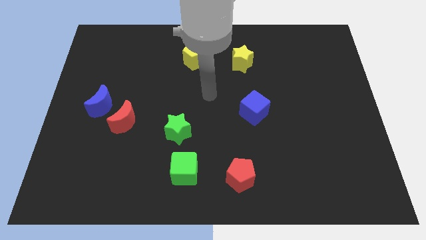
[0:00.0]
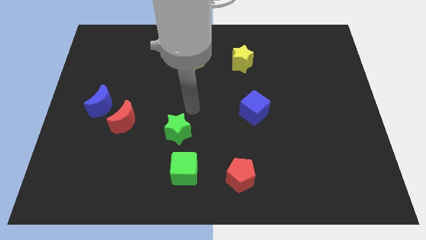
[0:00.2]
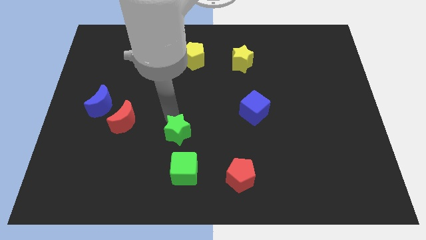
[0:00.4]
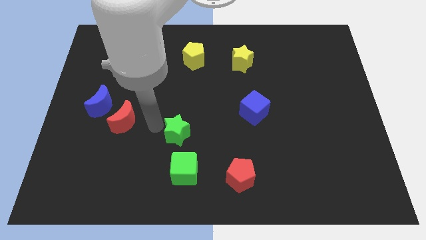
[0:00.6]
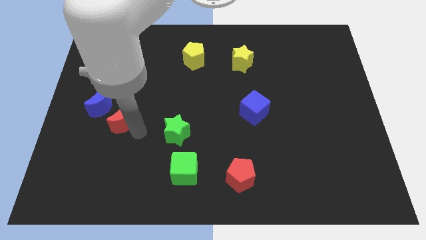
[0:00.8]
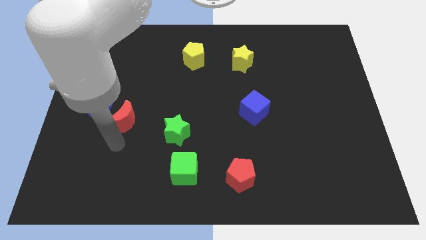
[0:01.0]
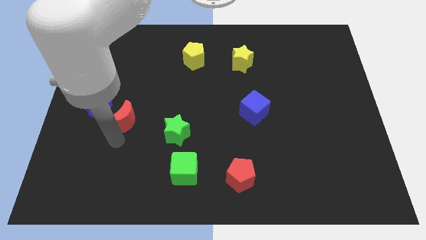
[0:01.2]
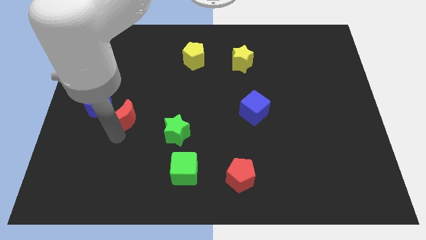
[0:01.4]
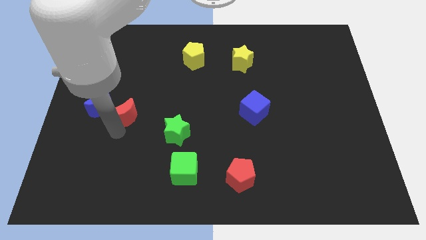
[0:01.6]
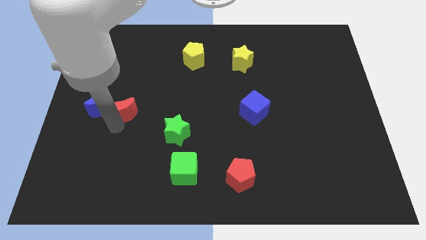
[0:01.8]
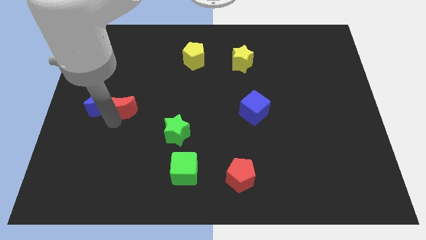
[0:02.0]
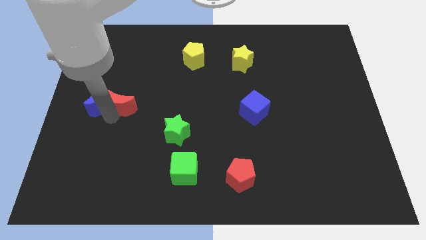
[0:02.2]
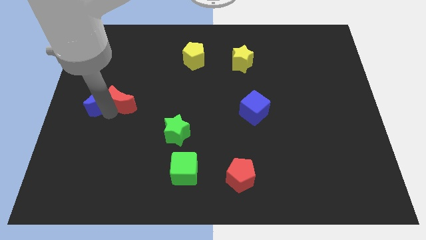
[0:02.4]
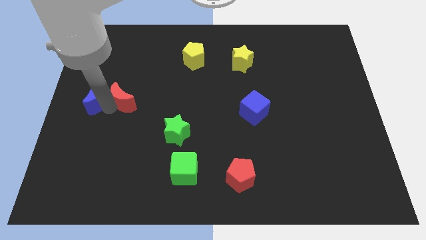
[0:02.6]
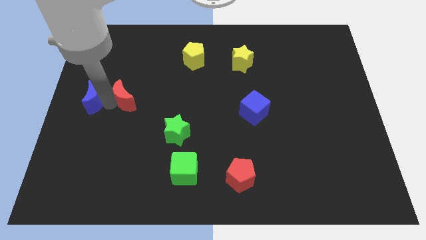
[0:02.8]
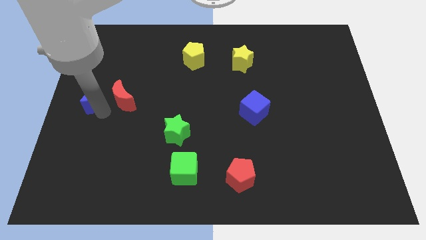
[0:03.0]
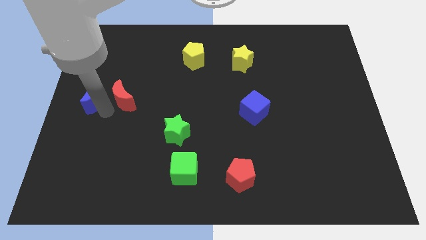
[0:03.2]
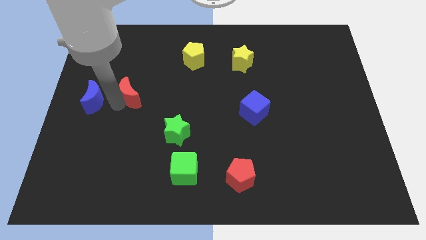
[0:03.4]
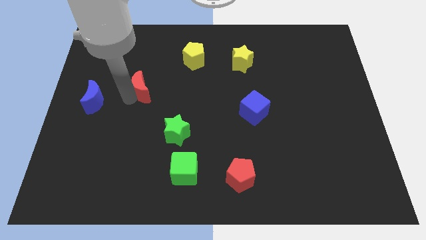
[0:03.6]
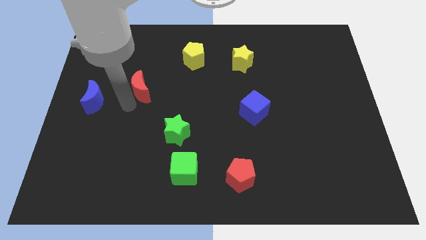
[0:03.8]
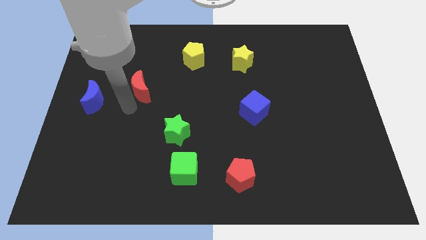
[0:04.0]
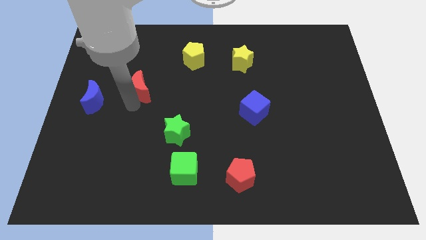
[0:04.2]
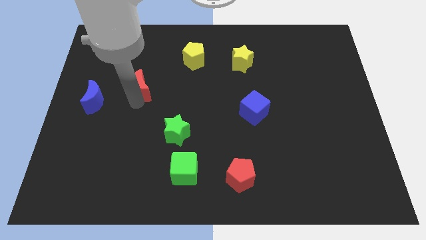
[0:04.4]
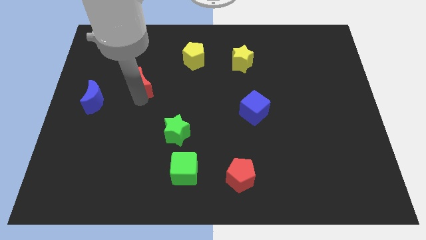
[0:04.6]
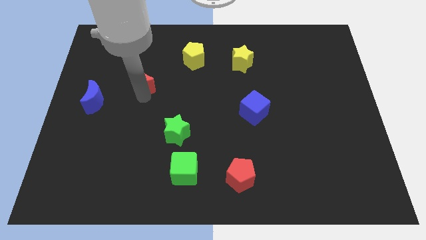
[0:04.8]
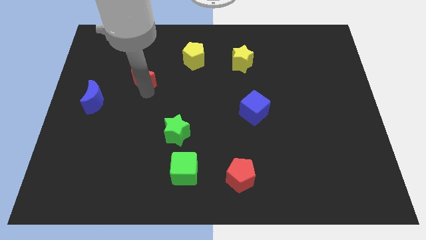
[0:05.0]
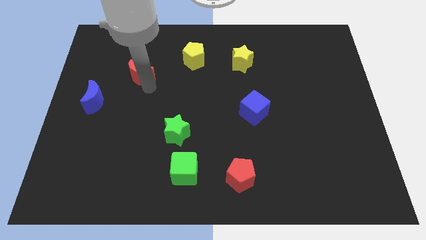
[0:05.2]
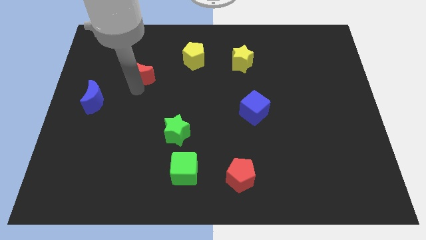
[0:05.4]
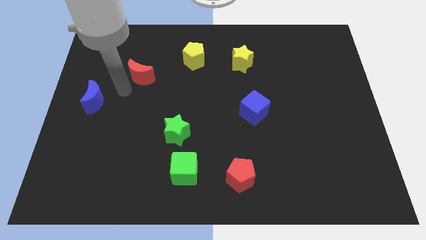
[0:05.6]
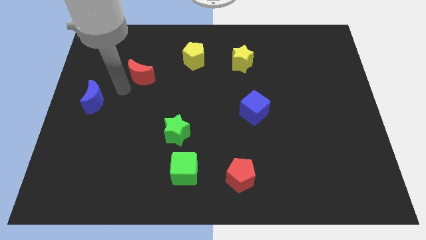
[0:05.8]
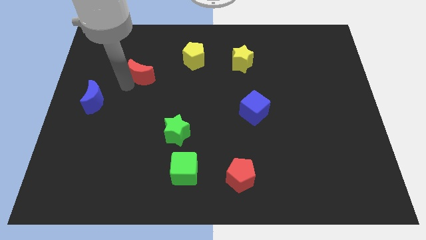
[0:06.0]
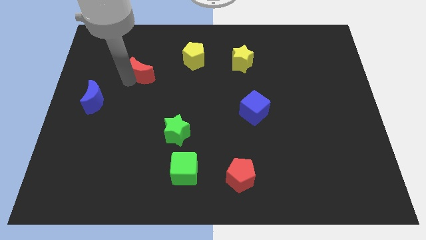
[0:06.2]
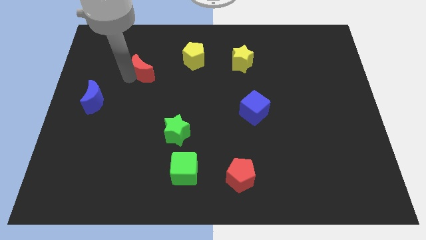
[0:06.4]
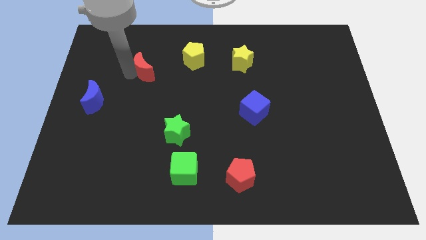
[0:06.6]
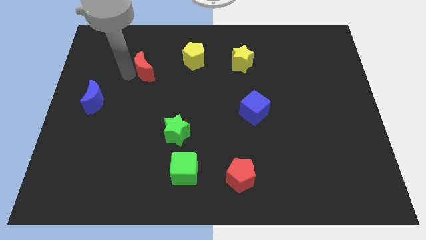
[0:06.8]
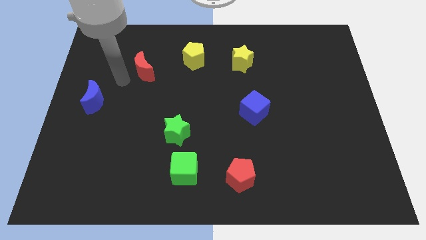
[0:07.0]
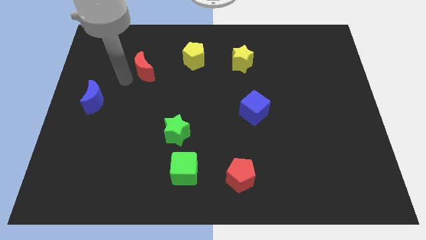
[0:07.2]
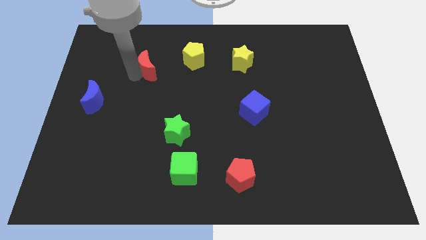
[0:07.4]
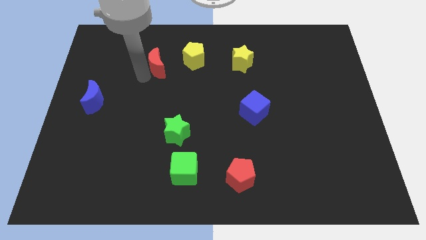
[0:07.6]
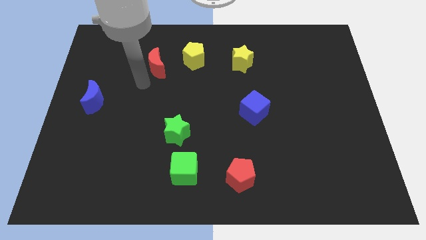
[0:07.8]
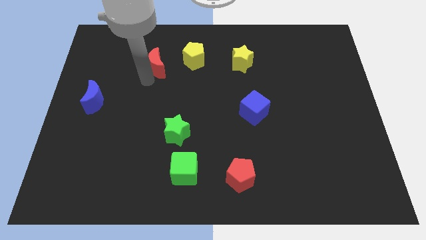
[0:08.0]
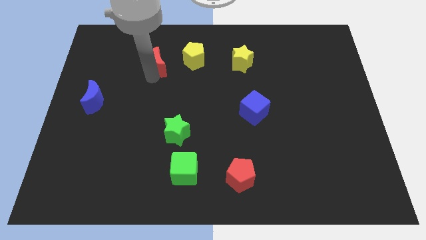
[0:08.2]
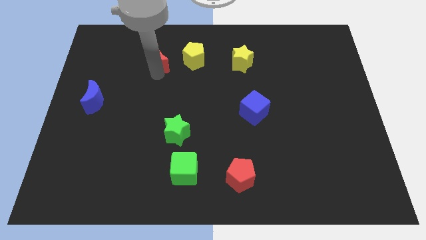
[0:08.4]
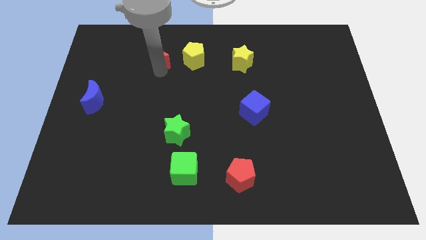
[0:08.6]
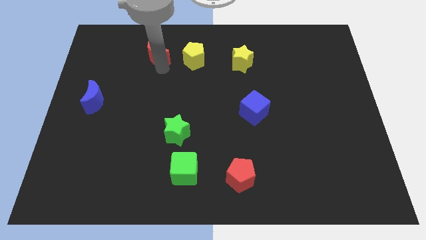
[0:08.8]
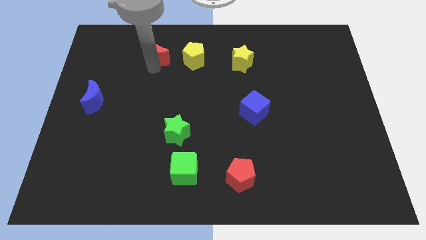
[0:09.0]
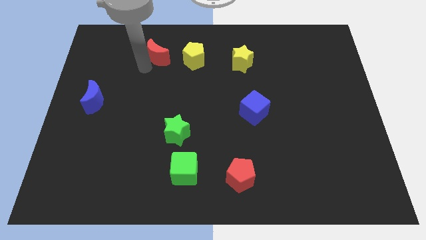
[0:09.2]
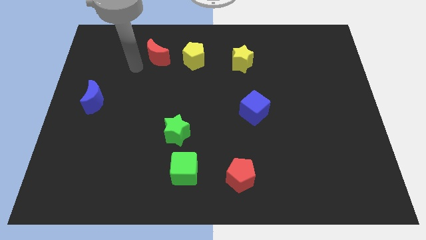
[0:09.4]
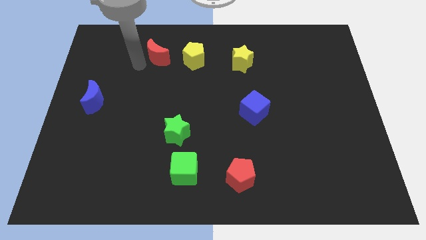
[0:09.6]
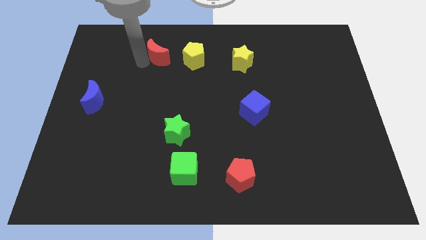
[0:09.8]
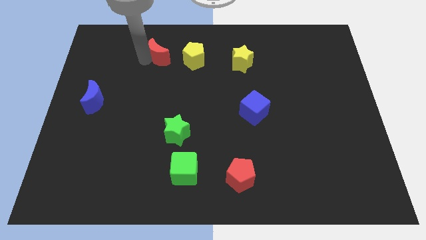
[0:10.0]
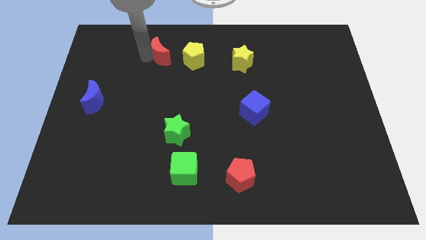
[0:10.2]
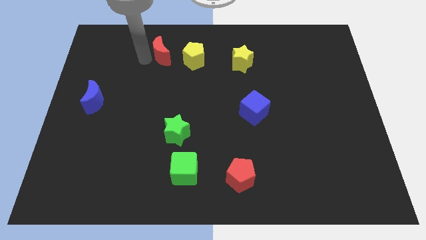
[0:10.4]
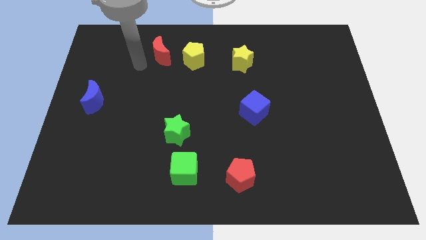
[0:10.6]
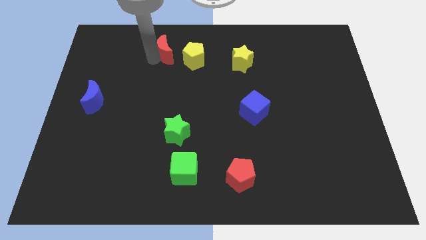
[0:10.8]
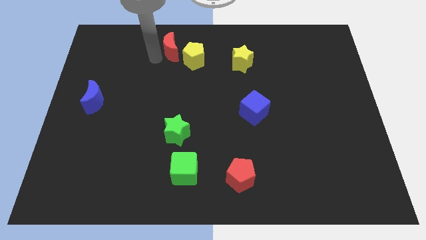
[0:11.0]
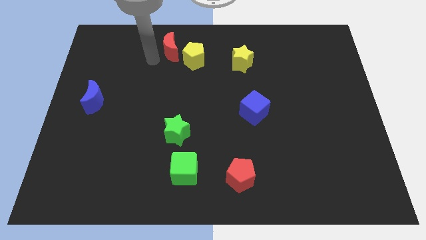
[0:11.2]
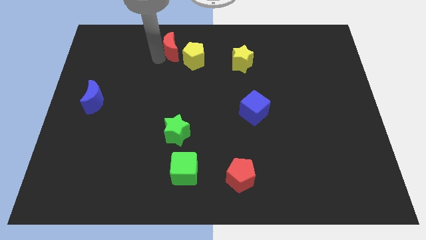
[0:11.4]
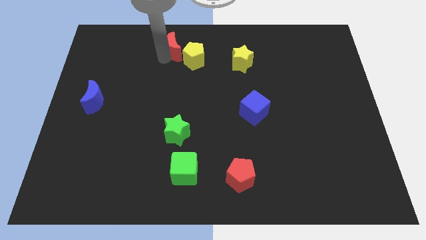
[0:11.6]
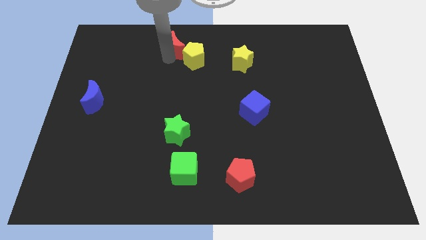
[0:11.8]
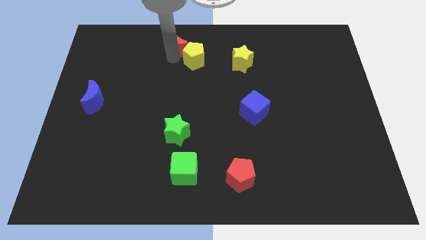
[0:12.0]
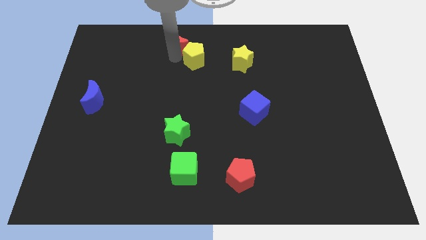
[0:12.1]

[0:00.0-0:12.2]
move the red moon to the top side
